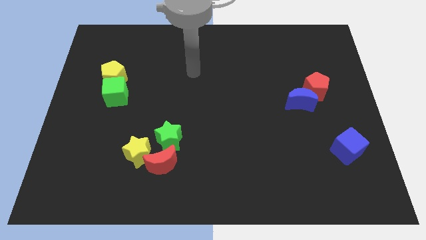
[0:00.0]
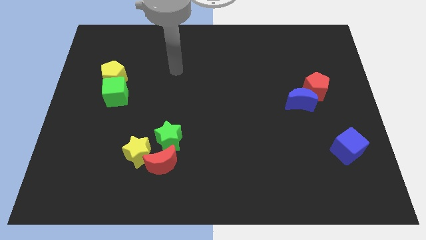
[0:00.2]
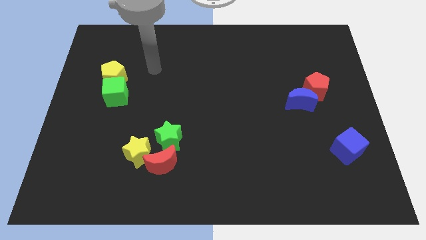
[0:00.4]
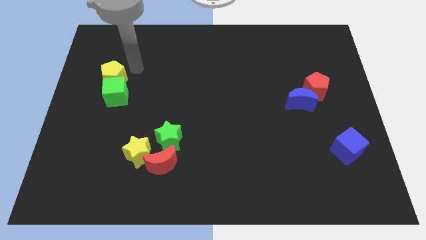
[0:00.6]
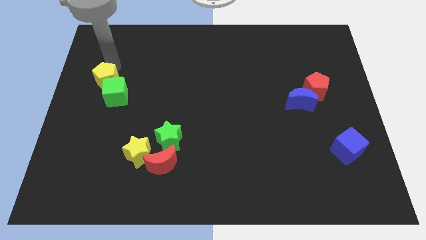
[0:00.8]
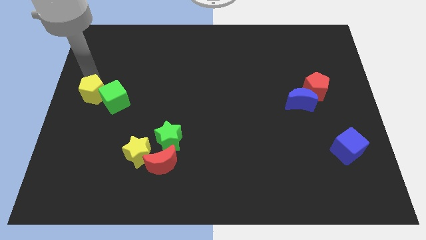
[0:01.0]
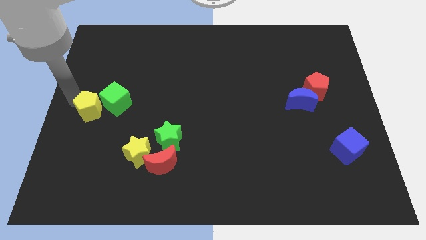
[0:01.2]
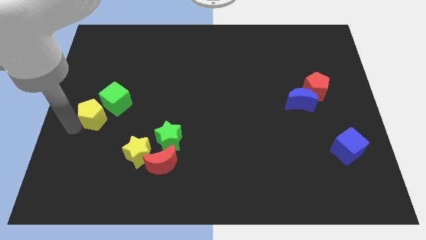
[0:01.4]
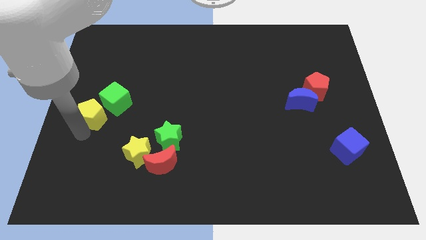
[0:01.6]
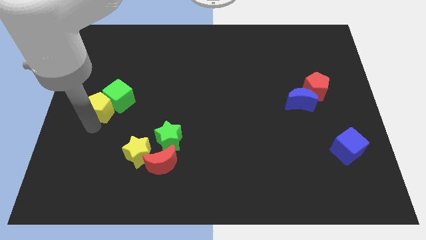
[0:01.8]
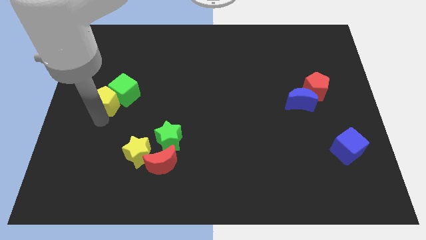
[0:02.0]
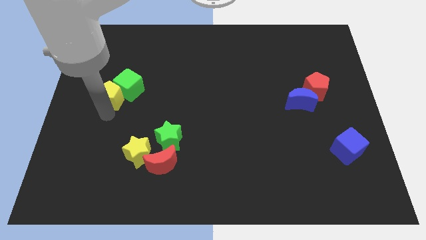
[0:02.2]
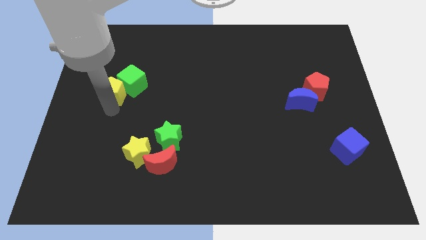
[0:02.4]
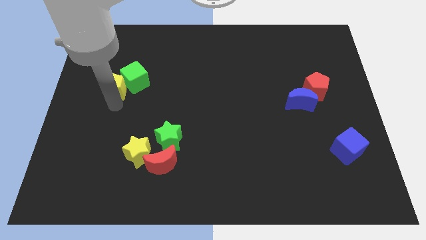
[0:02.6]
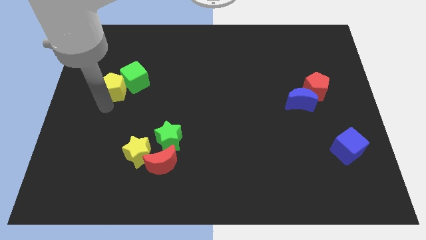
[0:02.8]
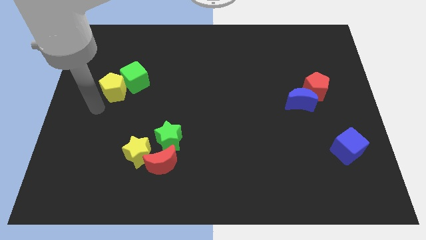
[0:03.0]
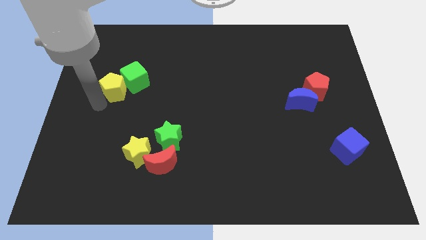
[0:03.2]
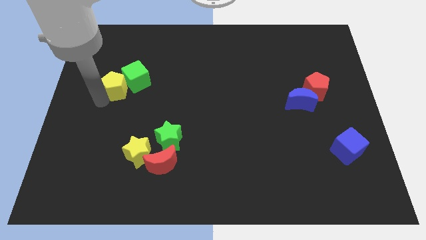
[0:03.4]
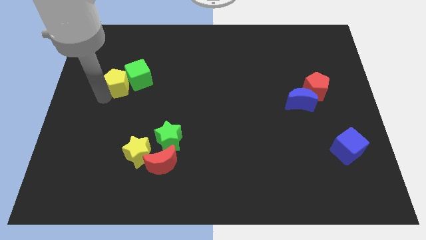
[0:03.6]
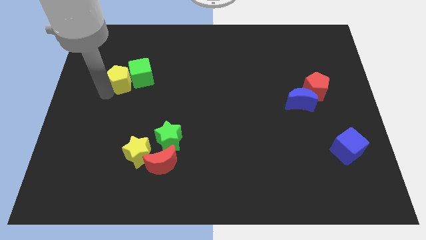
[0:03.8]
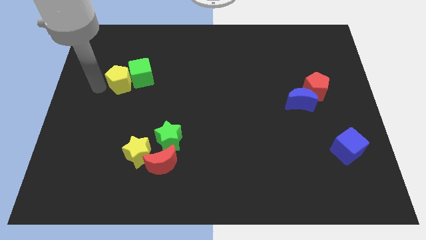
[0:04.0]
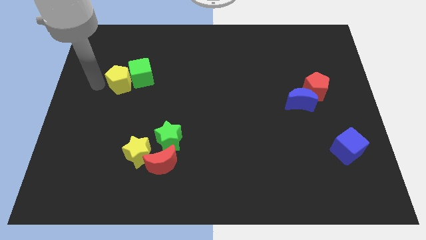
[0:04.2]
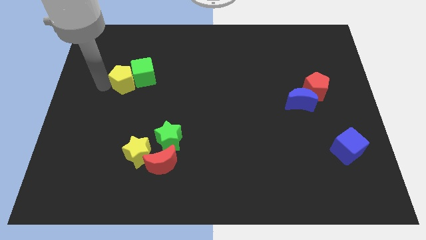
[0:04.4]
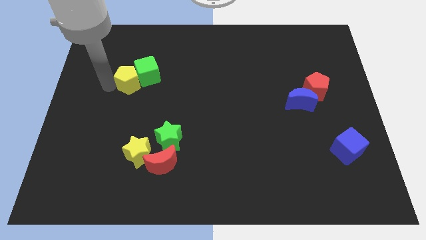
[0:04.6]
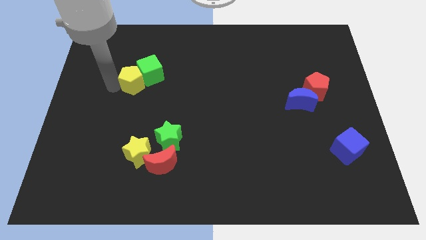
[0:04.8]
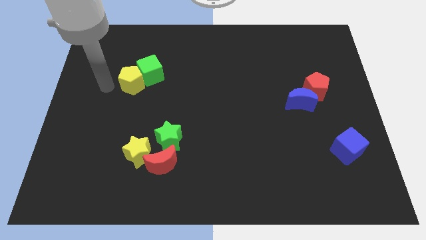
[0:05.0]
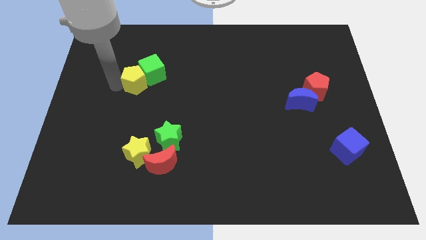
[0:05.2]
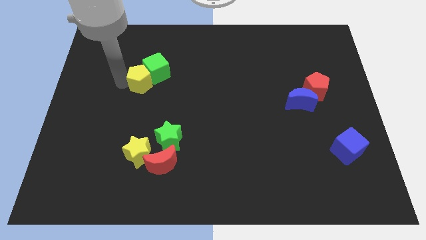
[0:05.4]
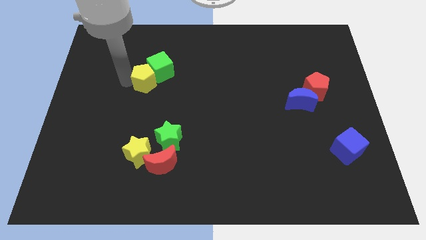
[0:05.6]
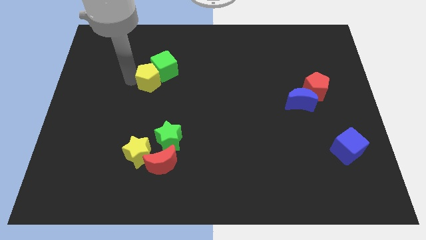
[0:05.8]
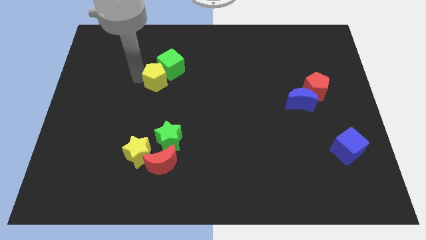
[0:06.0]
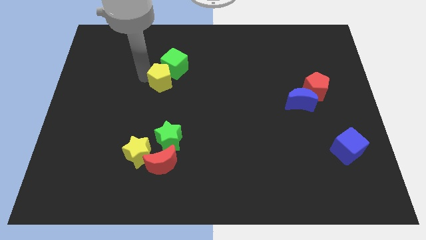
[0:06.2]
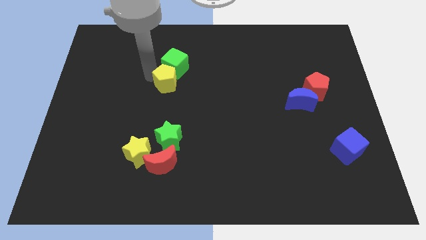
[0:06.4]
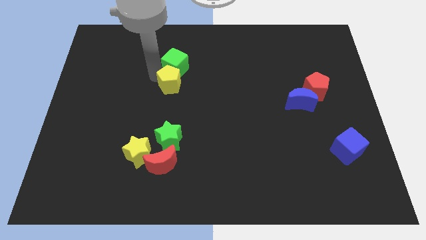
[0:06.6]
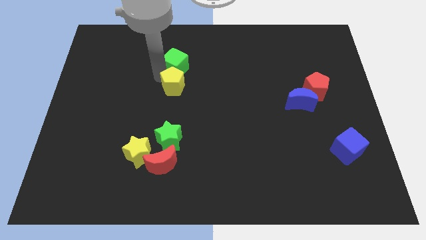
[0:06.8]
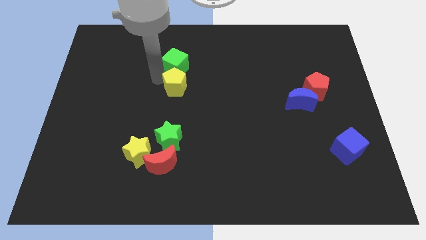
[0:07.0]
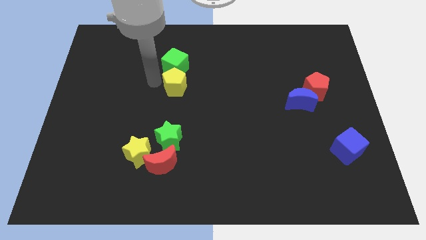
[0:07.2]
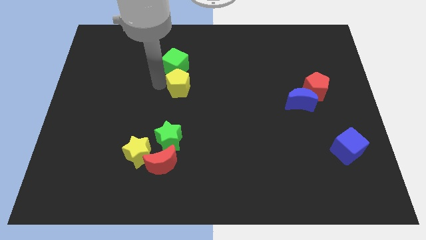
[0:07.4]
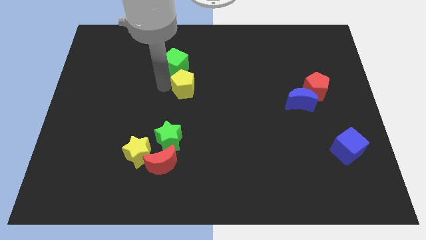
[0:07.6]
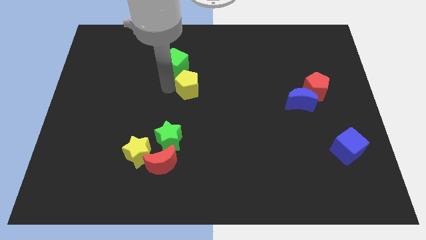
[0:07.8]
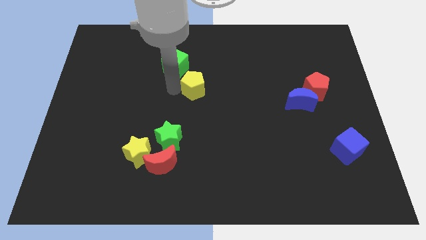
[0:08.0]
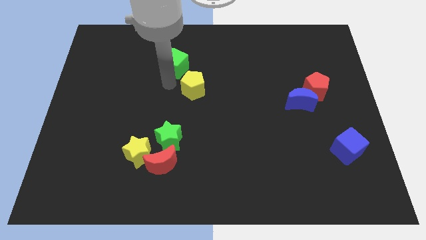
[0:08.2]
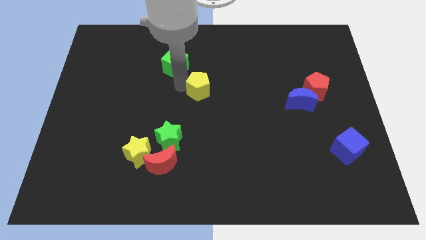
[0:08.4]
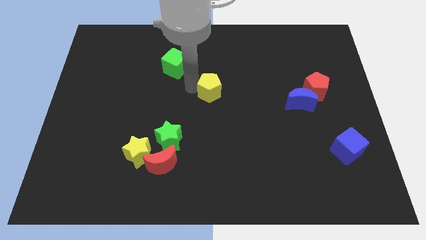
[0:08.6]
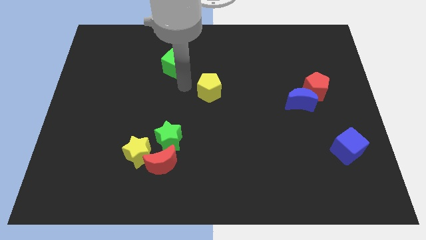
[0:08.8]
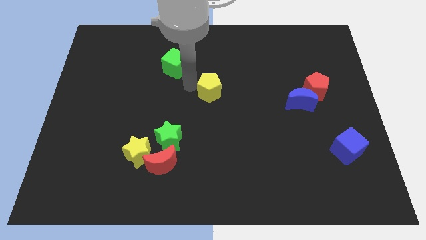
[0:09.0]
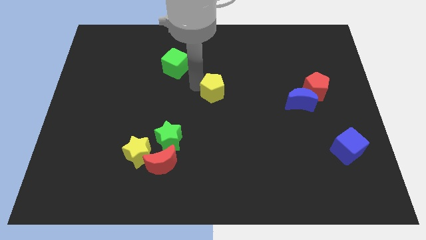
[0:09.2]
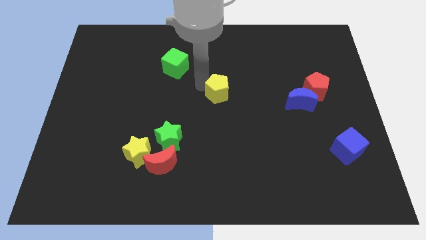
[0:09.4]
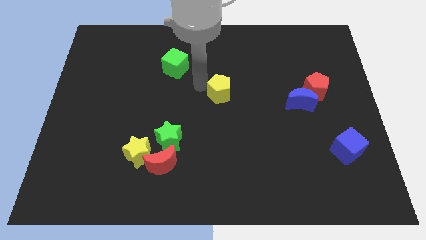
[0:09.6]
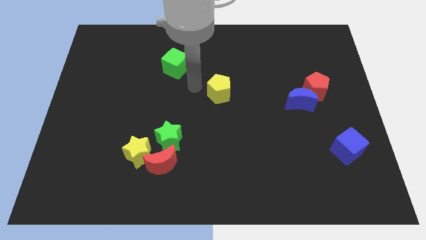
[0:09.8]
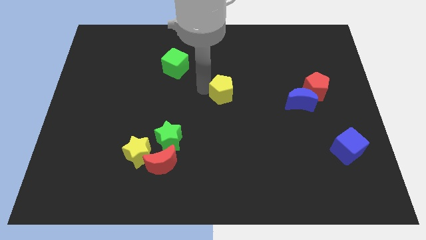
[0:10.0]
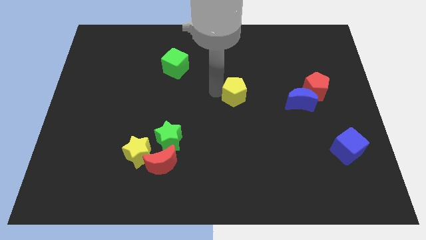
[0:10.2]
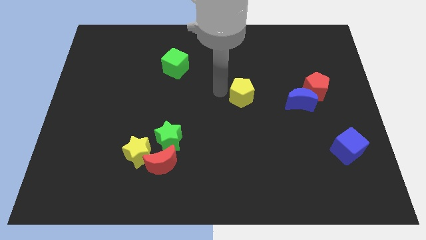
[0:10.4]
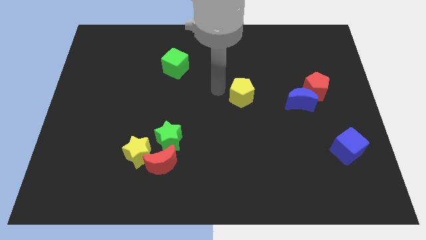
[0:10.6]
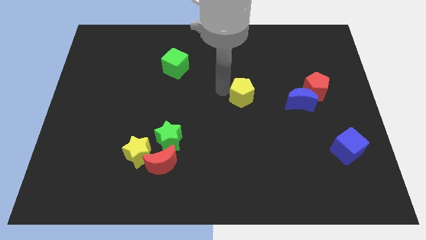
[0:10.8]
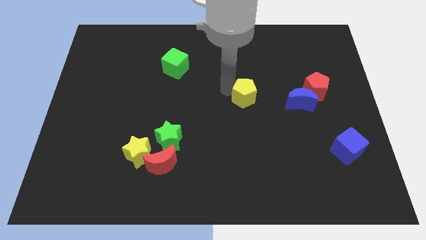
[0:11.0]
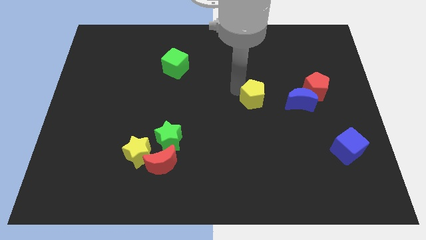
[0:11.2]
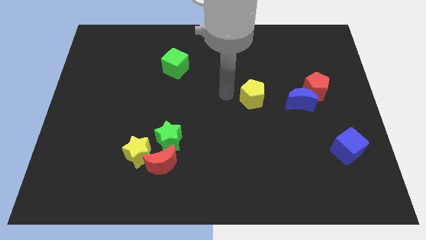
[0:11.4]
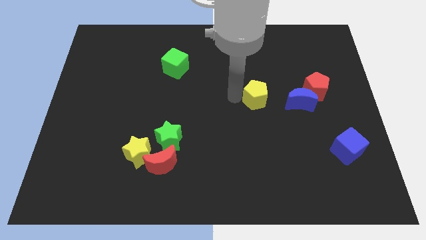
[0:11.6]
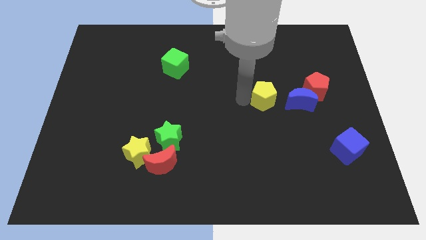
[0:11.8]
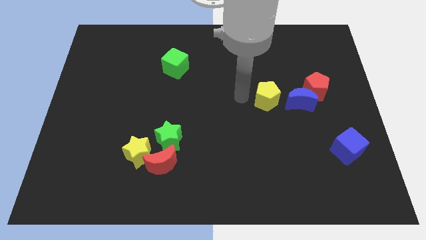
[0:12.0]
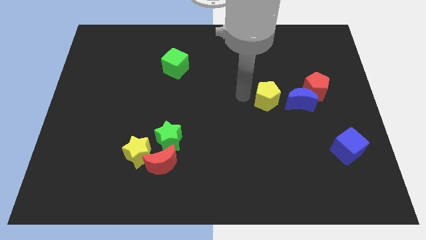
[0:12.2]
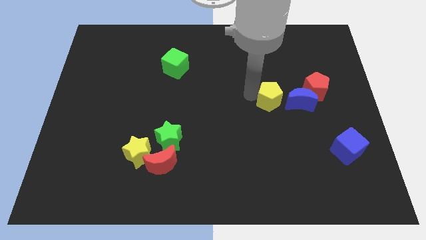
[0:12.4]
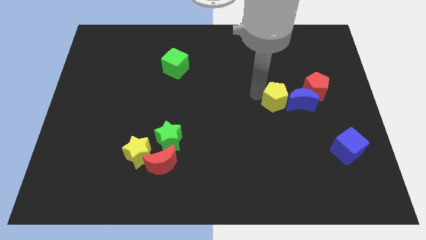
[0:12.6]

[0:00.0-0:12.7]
move the yellow pentagon next to the blue moon
